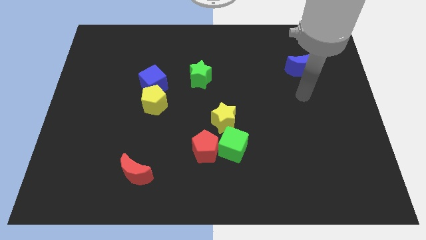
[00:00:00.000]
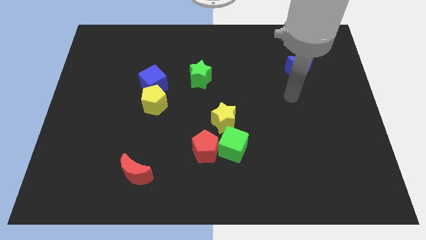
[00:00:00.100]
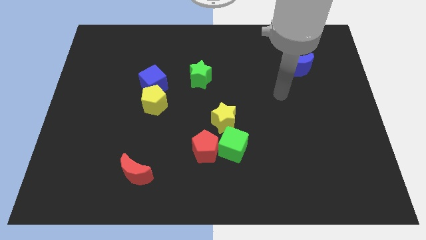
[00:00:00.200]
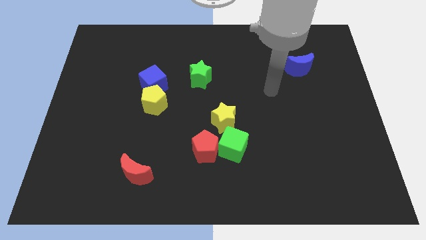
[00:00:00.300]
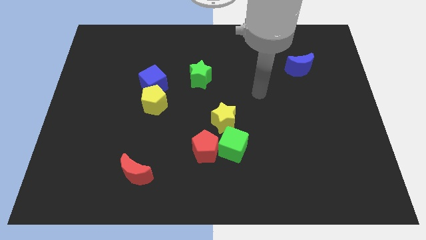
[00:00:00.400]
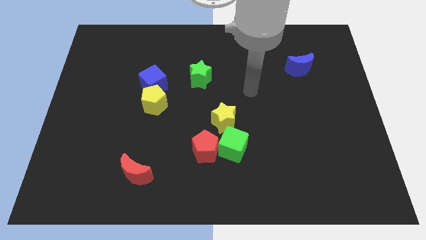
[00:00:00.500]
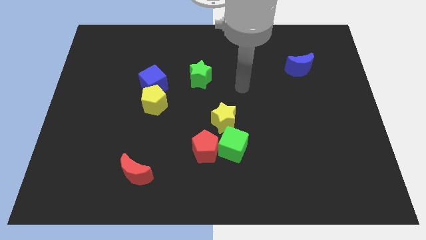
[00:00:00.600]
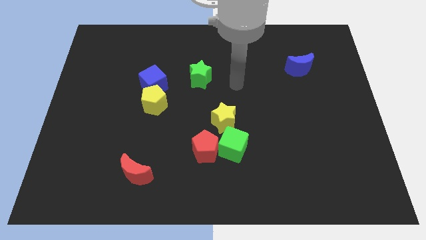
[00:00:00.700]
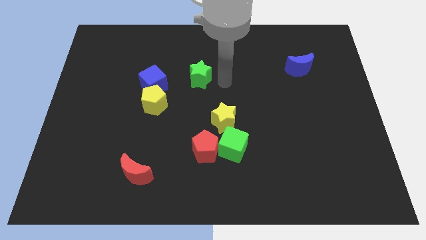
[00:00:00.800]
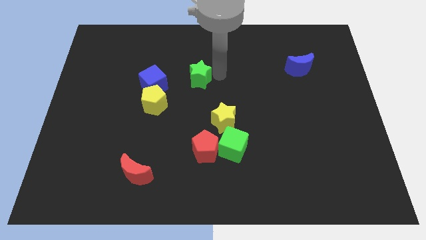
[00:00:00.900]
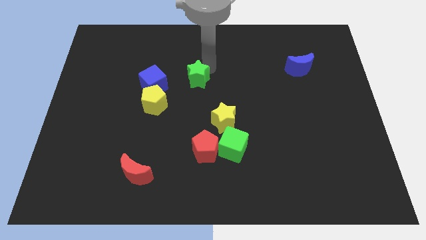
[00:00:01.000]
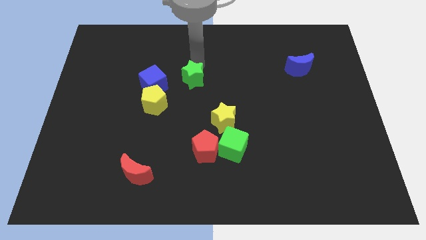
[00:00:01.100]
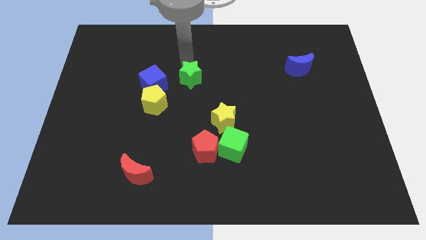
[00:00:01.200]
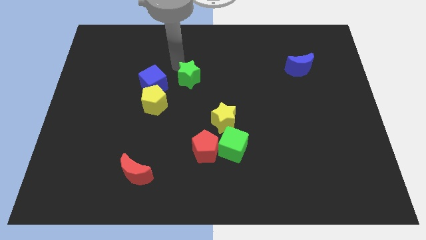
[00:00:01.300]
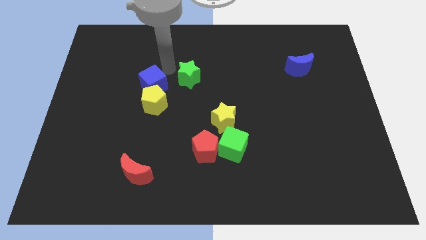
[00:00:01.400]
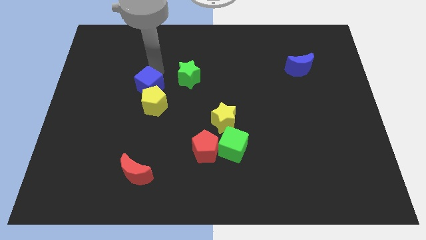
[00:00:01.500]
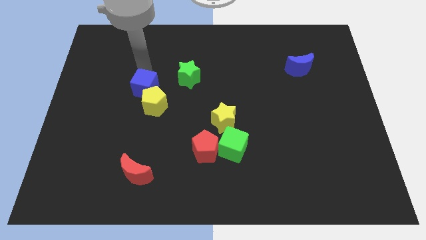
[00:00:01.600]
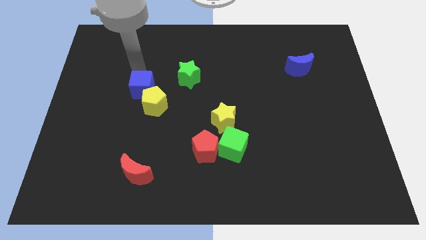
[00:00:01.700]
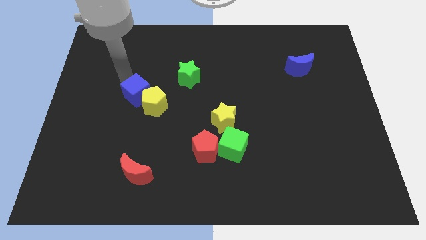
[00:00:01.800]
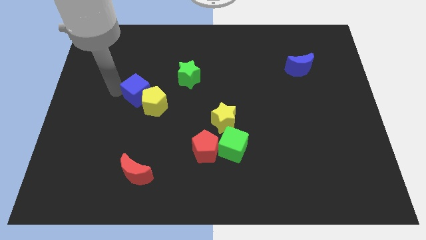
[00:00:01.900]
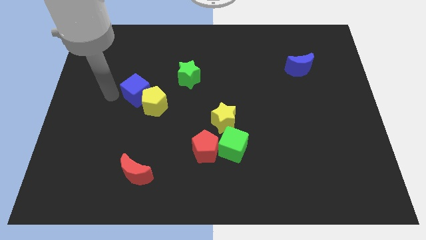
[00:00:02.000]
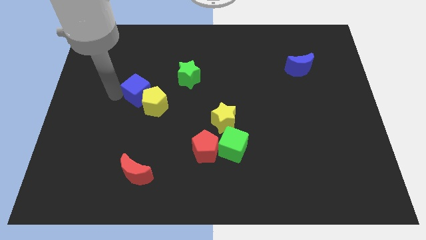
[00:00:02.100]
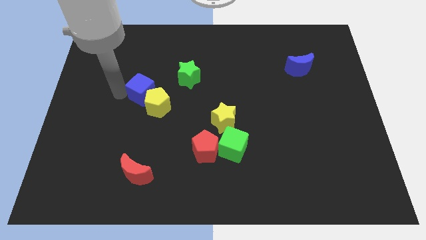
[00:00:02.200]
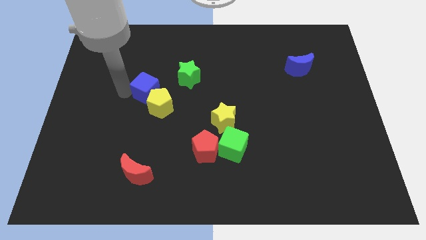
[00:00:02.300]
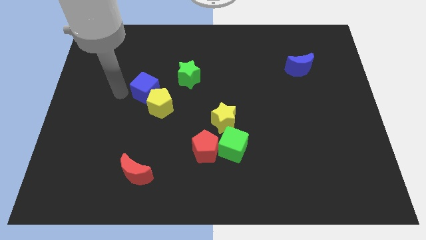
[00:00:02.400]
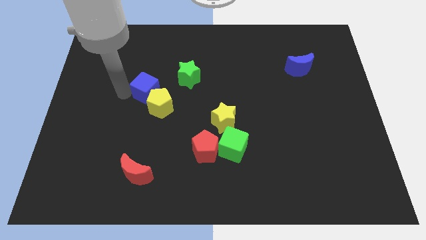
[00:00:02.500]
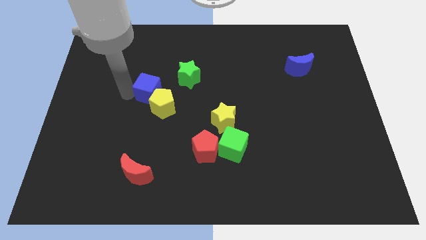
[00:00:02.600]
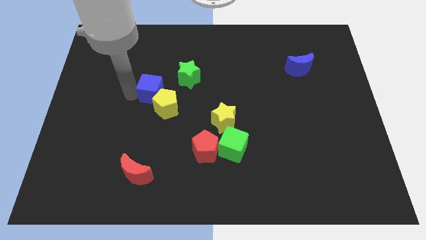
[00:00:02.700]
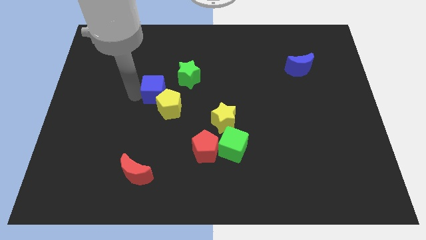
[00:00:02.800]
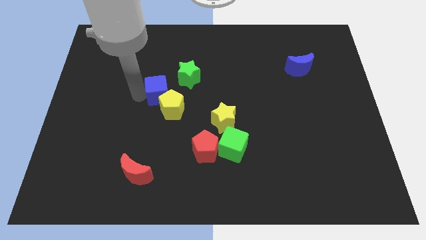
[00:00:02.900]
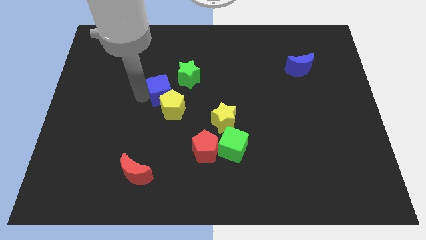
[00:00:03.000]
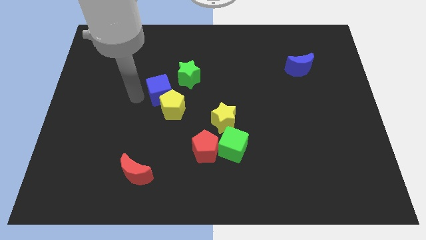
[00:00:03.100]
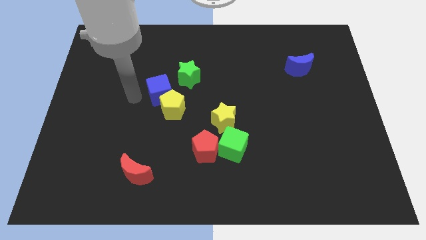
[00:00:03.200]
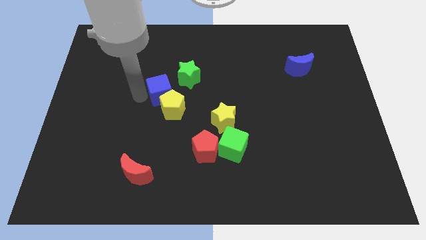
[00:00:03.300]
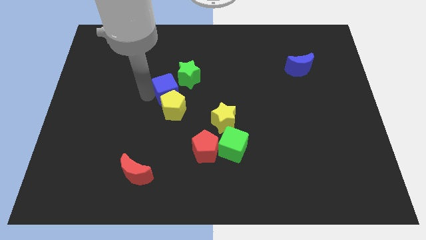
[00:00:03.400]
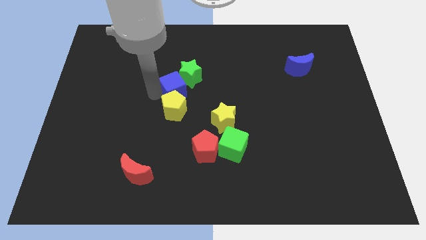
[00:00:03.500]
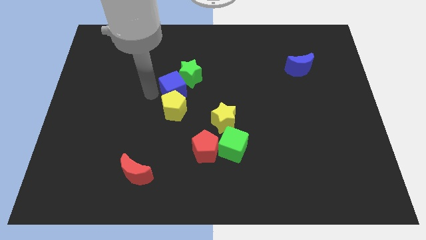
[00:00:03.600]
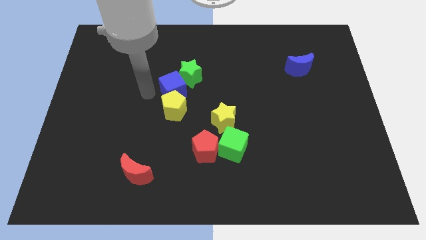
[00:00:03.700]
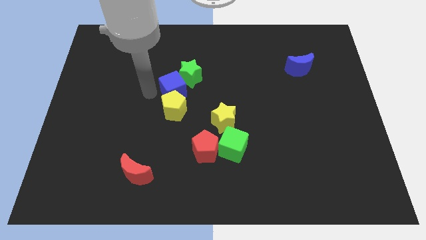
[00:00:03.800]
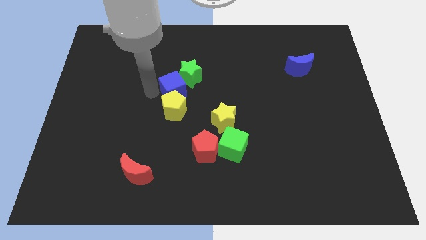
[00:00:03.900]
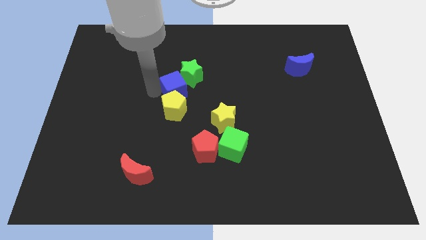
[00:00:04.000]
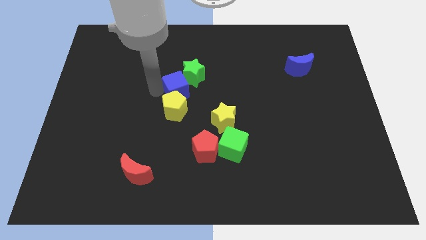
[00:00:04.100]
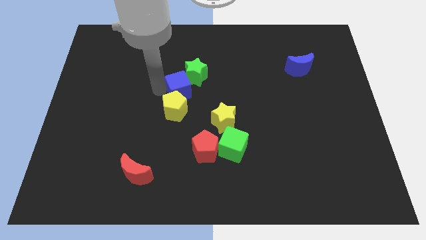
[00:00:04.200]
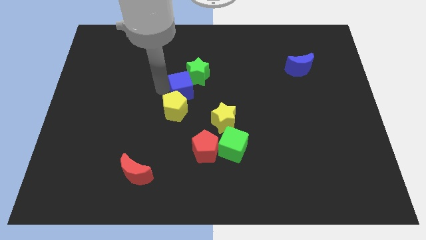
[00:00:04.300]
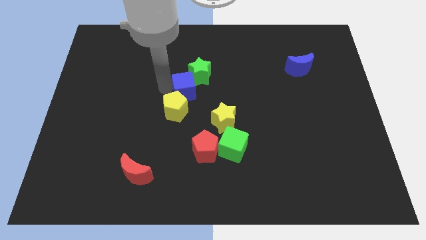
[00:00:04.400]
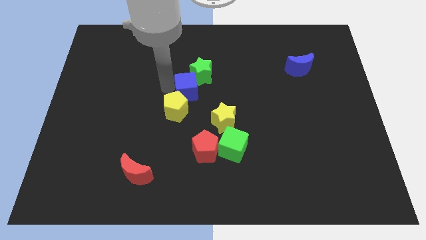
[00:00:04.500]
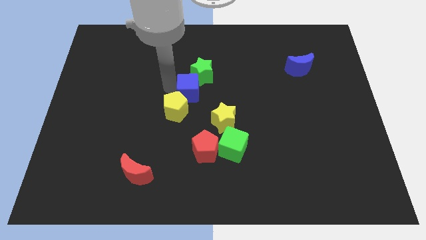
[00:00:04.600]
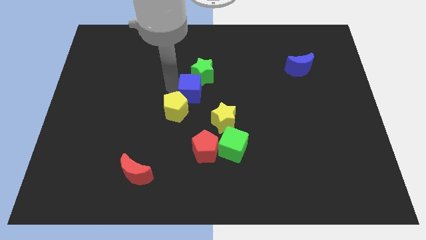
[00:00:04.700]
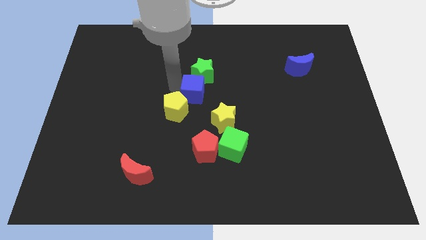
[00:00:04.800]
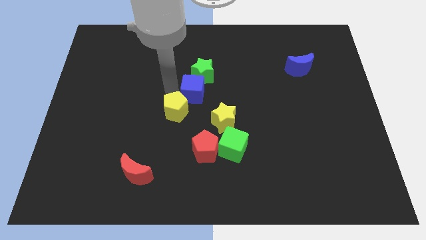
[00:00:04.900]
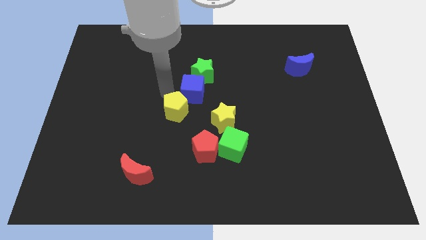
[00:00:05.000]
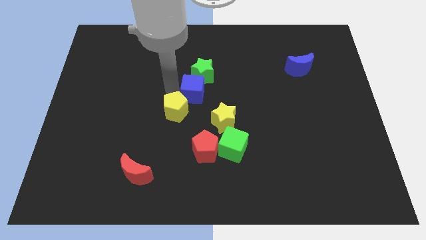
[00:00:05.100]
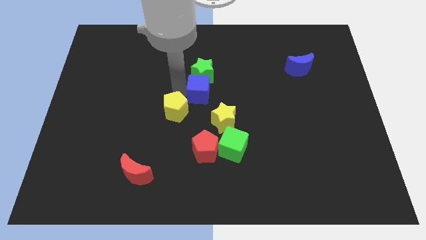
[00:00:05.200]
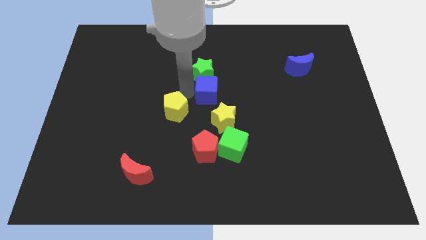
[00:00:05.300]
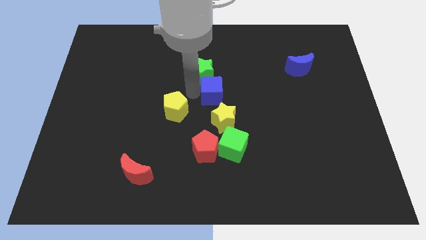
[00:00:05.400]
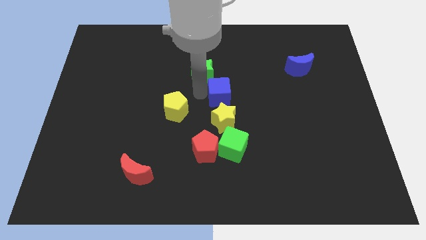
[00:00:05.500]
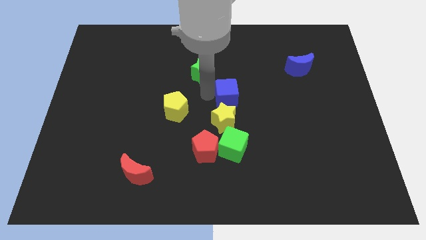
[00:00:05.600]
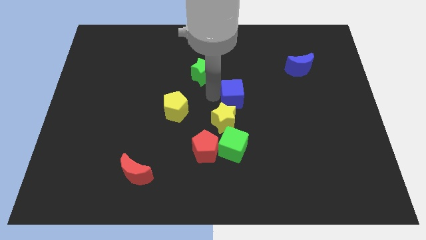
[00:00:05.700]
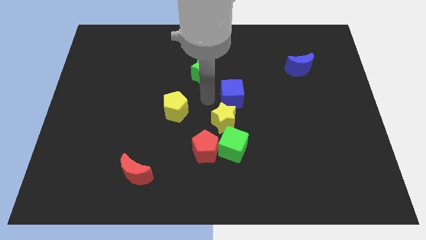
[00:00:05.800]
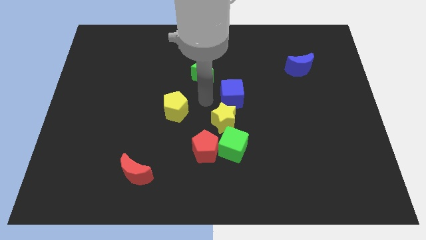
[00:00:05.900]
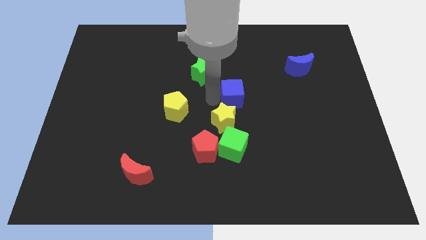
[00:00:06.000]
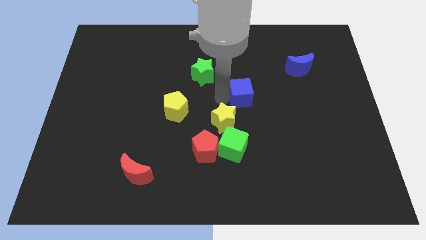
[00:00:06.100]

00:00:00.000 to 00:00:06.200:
push the blue cube to the right

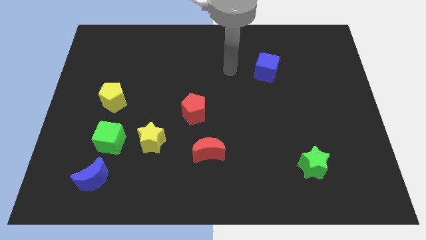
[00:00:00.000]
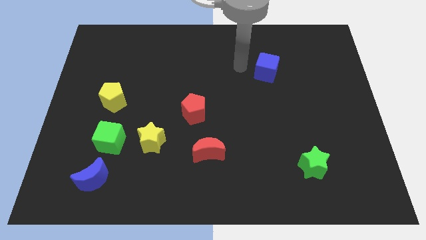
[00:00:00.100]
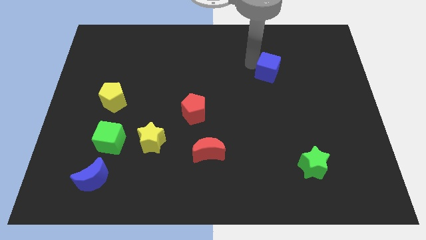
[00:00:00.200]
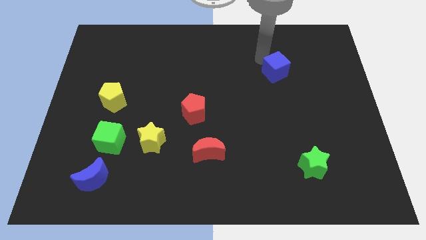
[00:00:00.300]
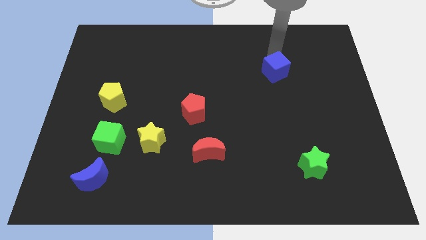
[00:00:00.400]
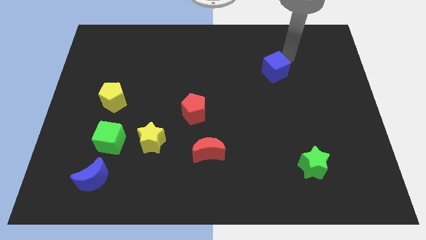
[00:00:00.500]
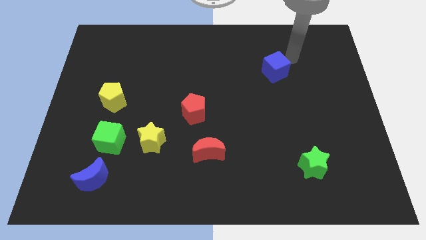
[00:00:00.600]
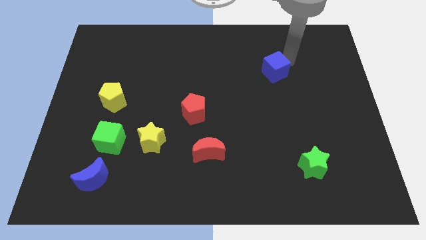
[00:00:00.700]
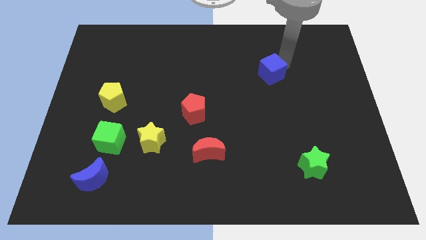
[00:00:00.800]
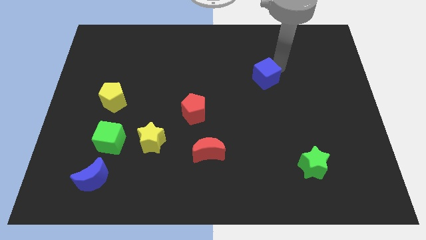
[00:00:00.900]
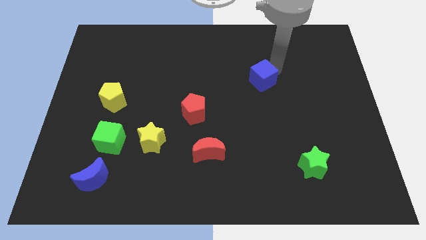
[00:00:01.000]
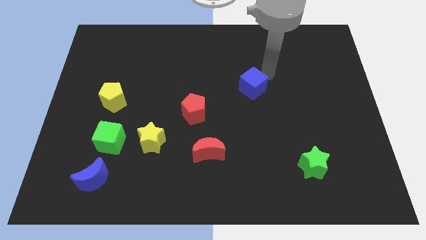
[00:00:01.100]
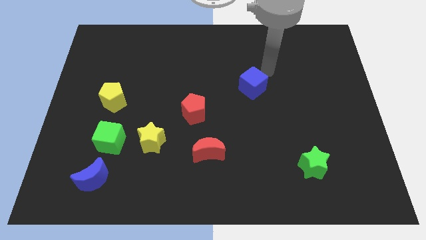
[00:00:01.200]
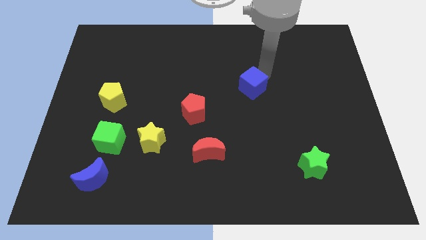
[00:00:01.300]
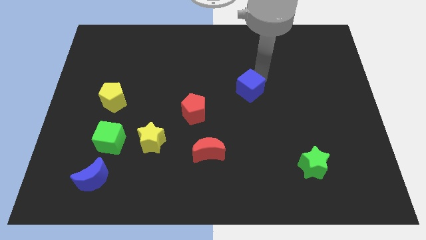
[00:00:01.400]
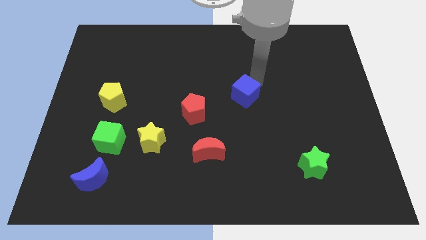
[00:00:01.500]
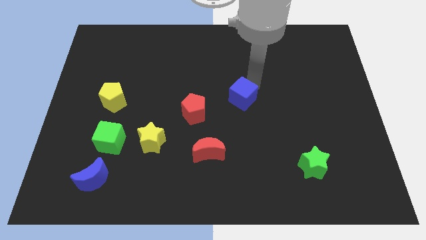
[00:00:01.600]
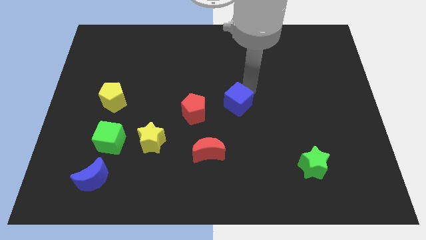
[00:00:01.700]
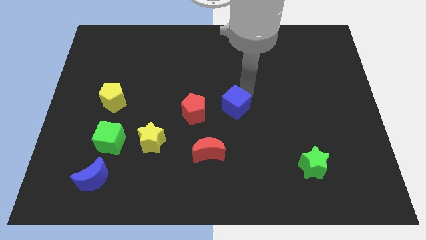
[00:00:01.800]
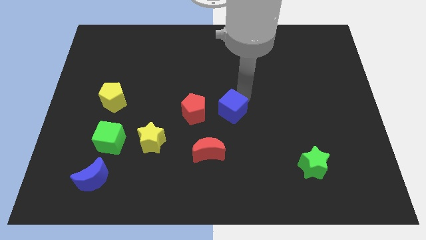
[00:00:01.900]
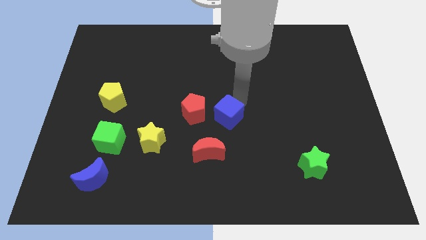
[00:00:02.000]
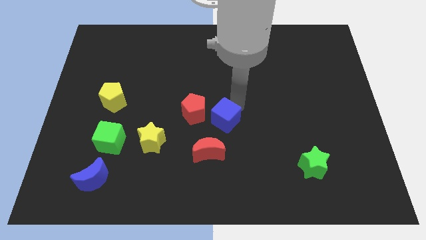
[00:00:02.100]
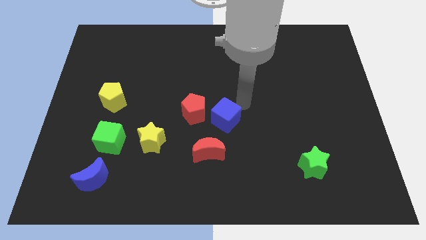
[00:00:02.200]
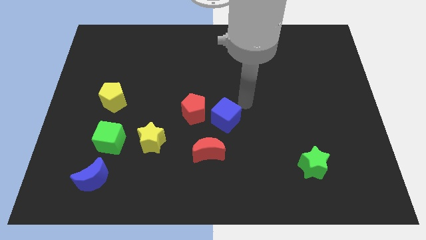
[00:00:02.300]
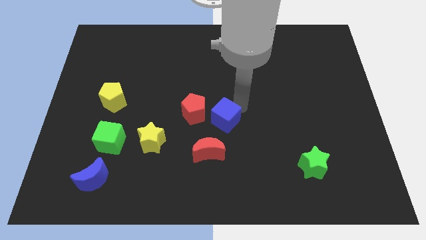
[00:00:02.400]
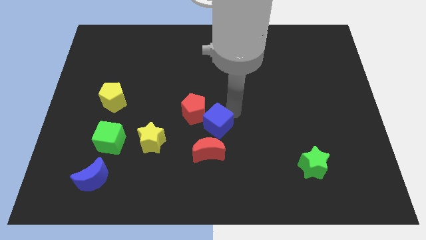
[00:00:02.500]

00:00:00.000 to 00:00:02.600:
slide the blue cube diagonally down and left
